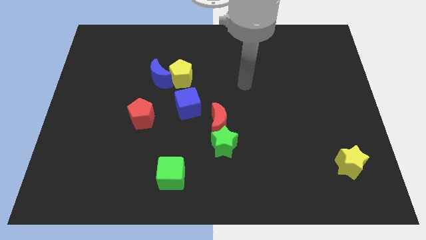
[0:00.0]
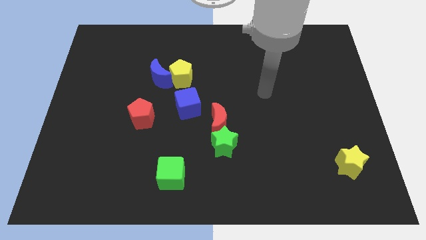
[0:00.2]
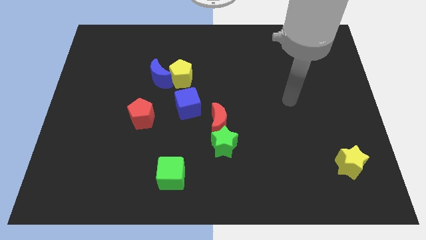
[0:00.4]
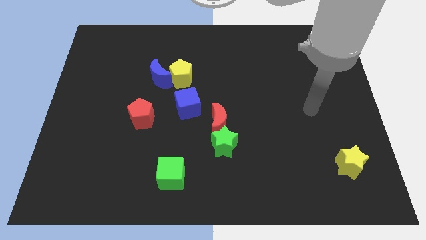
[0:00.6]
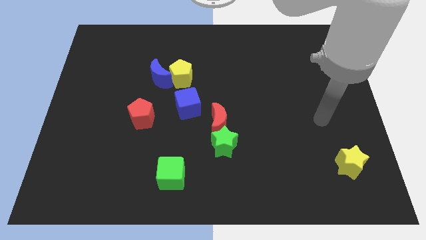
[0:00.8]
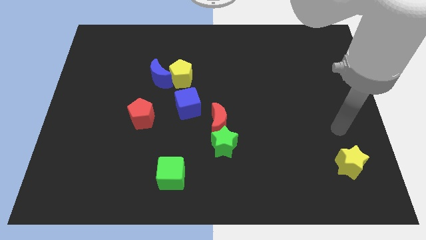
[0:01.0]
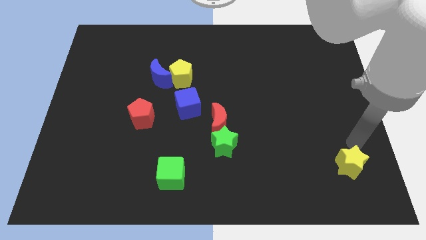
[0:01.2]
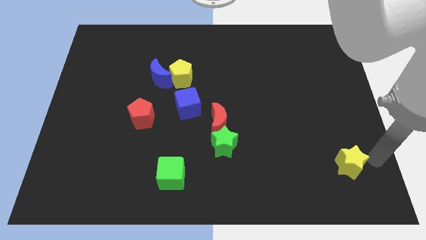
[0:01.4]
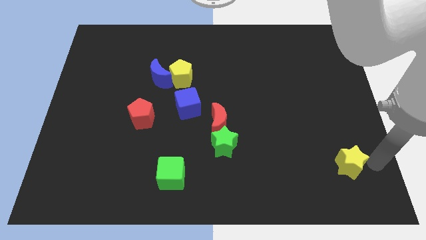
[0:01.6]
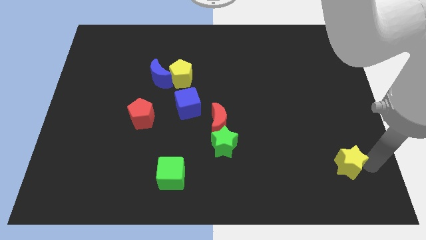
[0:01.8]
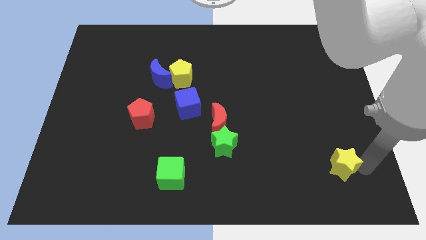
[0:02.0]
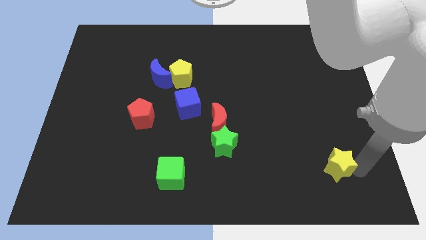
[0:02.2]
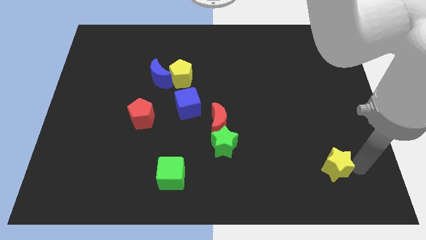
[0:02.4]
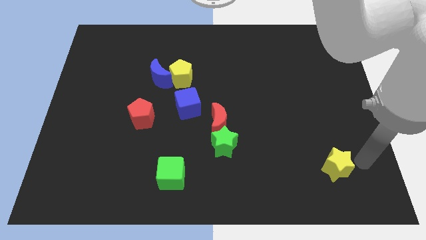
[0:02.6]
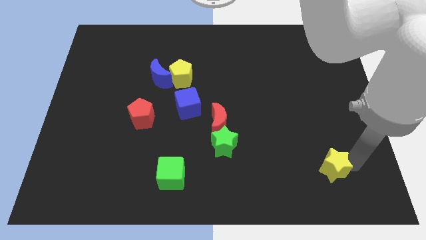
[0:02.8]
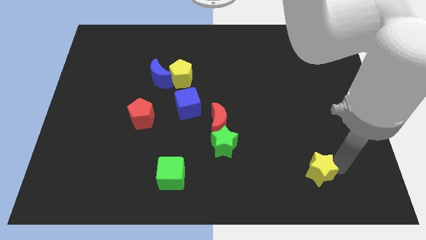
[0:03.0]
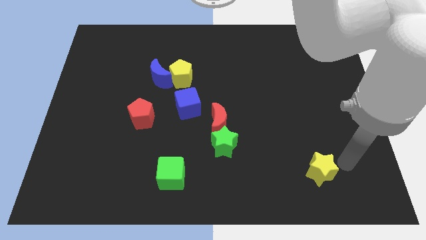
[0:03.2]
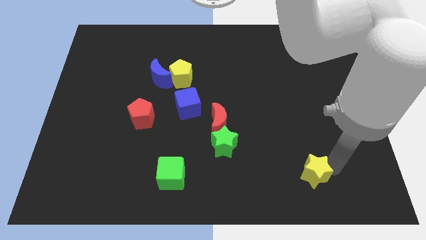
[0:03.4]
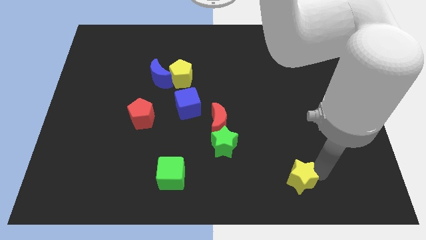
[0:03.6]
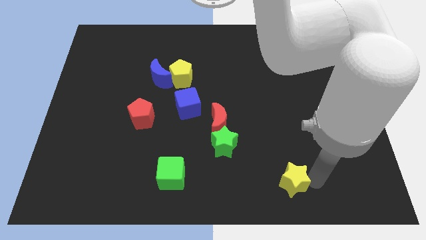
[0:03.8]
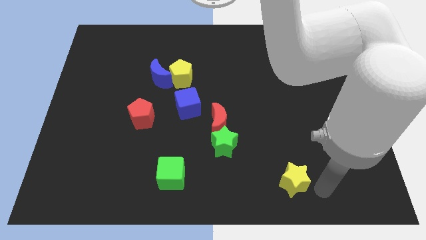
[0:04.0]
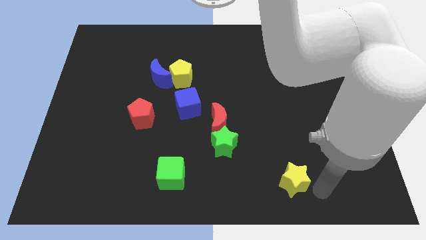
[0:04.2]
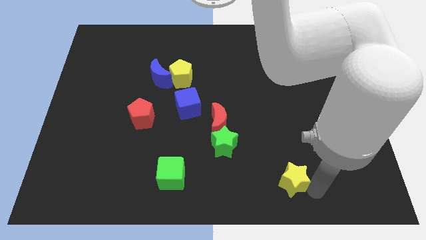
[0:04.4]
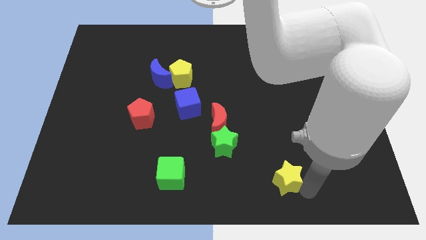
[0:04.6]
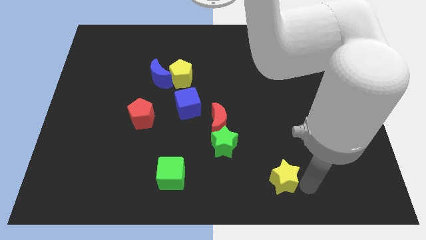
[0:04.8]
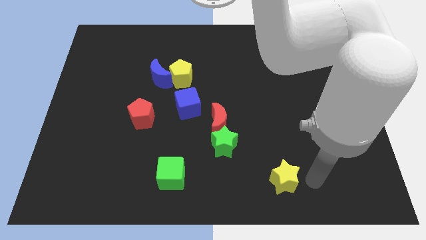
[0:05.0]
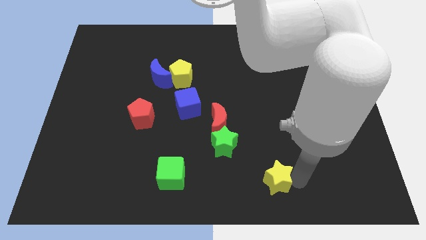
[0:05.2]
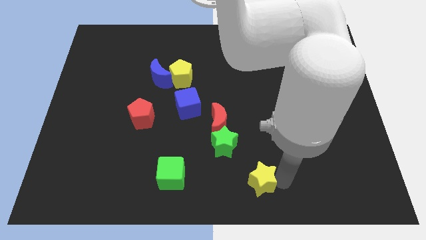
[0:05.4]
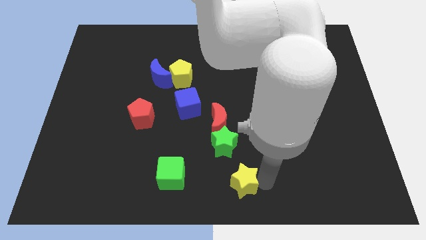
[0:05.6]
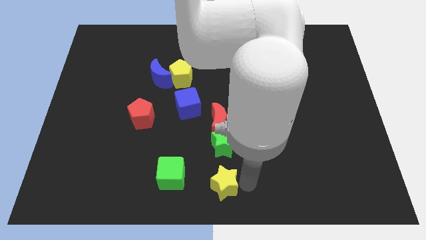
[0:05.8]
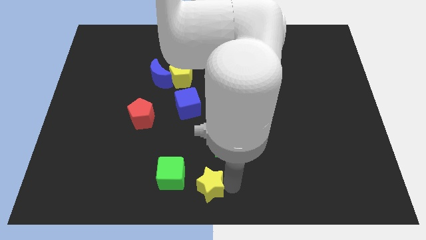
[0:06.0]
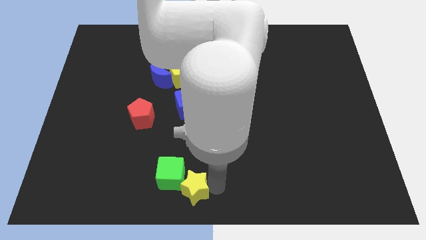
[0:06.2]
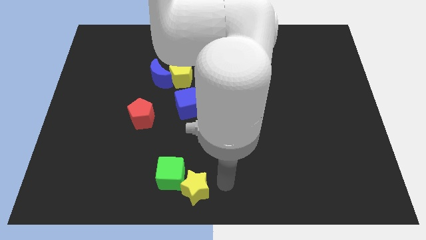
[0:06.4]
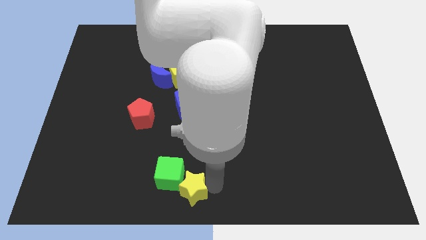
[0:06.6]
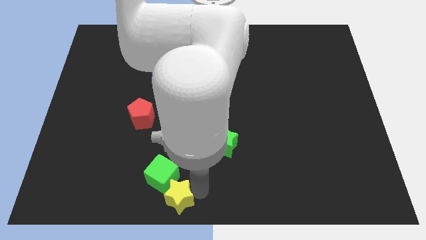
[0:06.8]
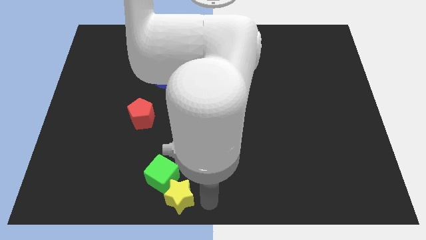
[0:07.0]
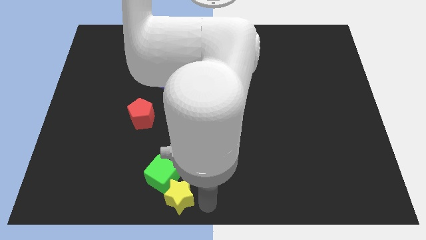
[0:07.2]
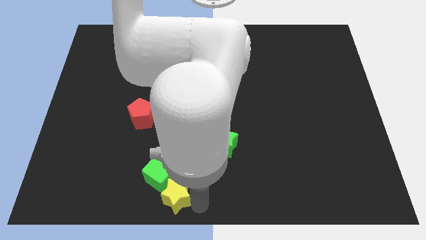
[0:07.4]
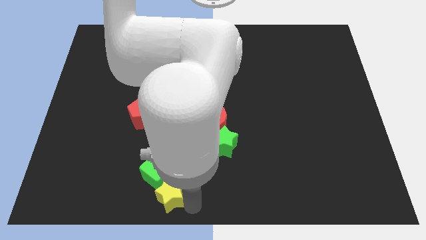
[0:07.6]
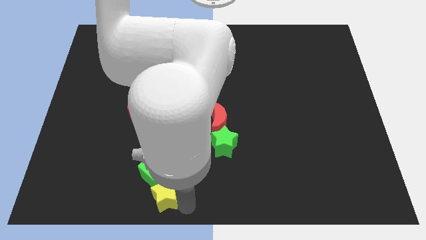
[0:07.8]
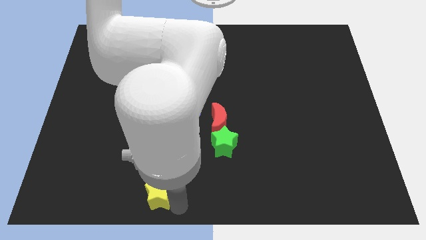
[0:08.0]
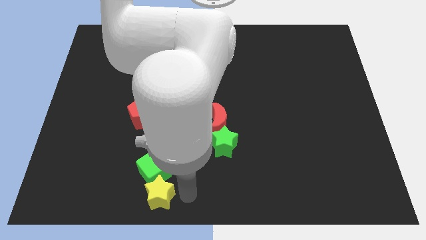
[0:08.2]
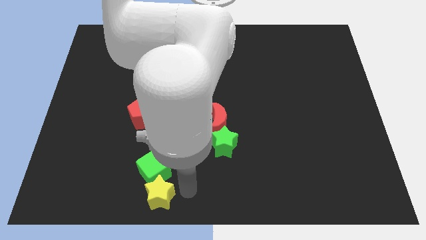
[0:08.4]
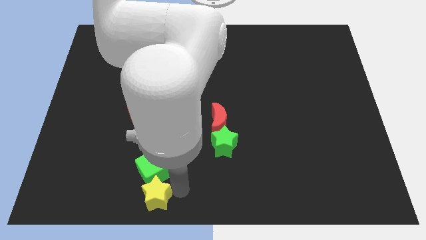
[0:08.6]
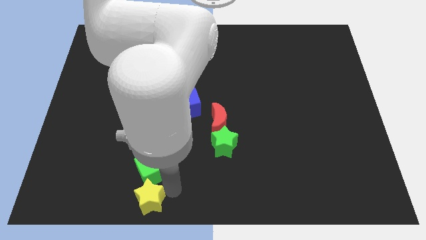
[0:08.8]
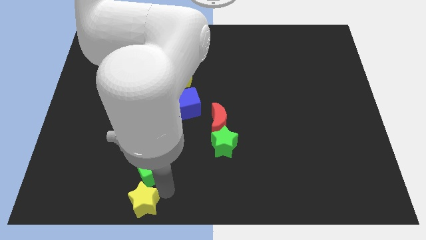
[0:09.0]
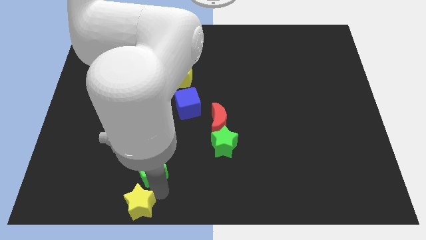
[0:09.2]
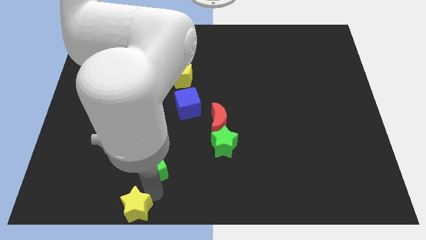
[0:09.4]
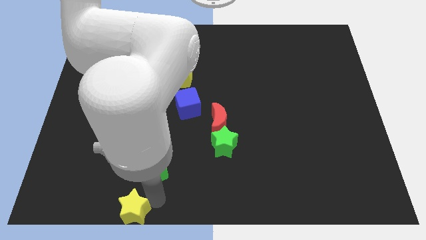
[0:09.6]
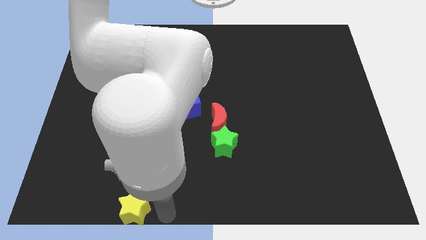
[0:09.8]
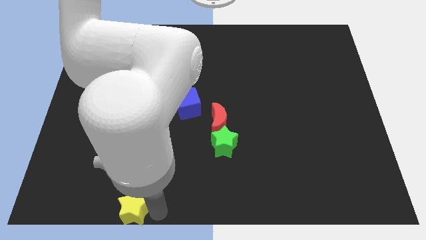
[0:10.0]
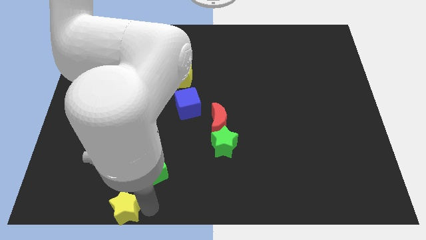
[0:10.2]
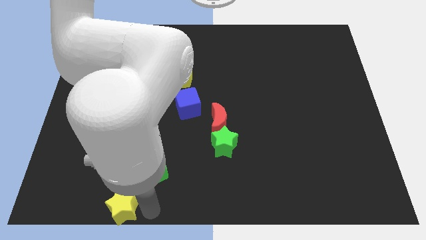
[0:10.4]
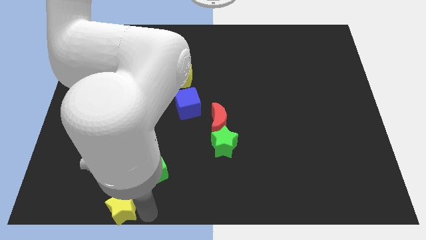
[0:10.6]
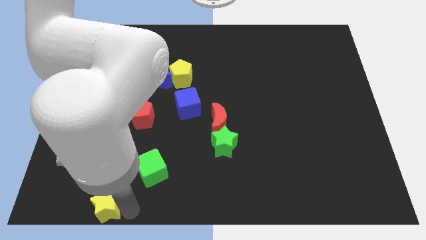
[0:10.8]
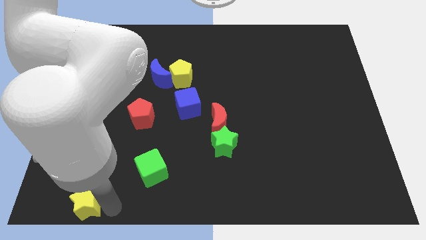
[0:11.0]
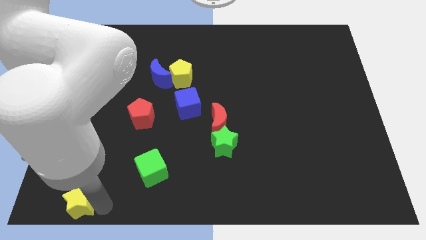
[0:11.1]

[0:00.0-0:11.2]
put the yellow star to the bottom left of the board

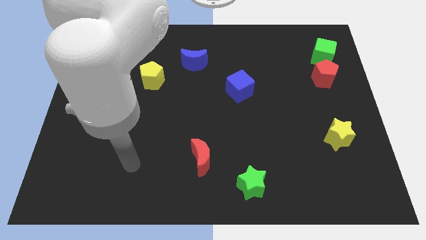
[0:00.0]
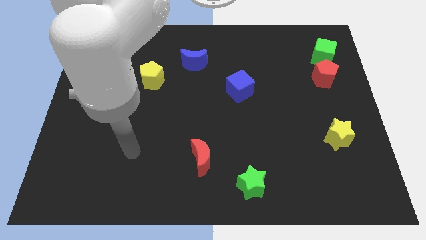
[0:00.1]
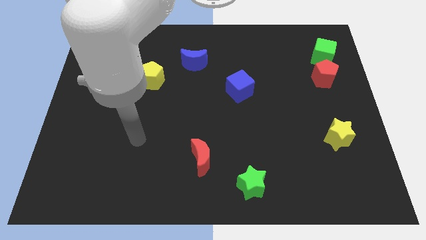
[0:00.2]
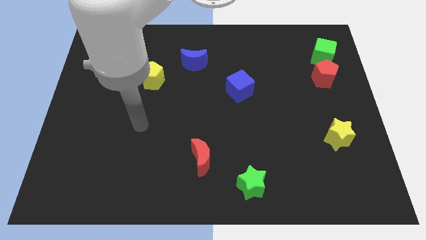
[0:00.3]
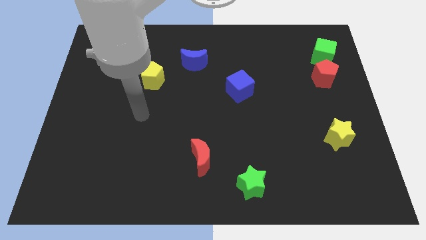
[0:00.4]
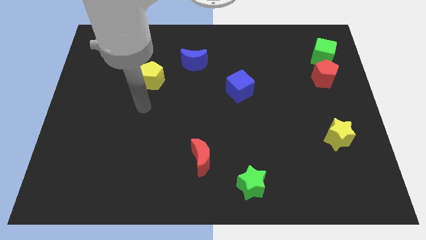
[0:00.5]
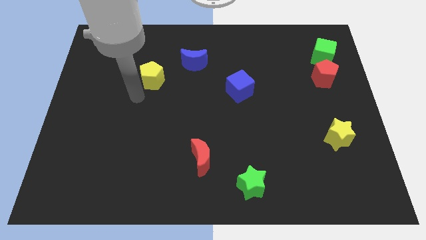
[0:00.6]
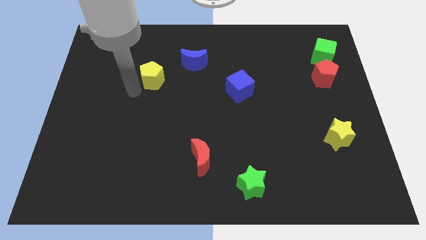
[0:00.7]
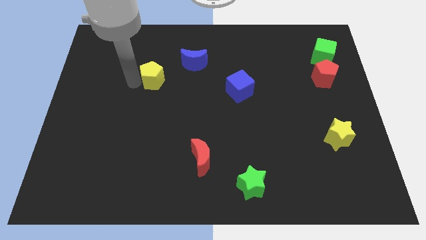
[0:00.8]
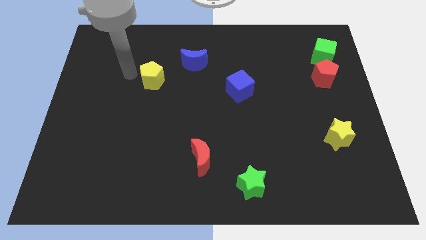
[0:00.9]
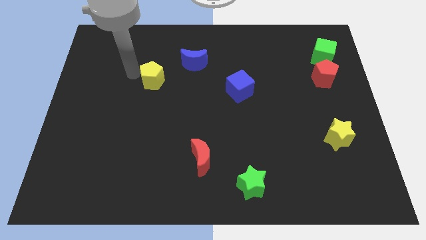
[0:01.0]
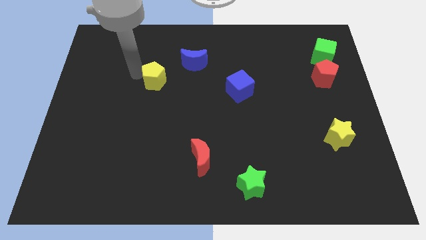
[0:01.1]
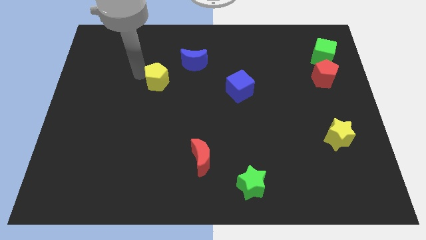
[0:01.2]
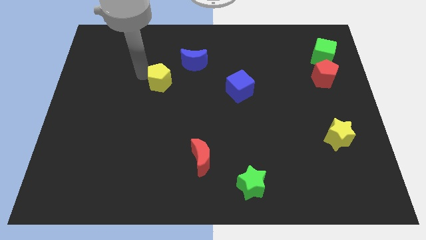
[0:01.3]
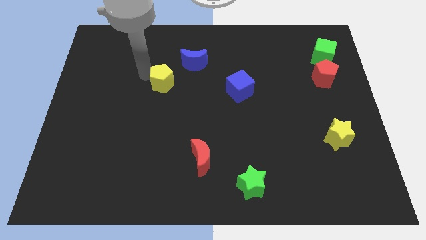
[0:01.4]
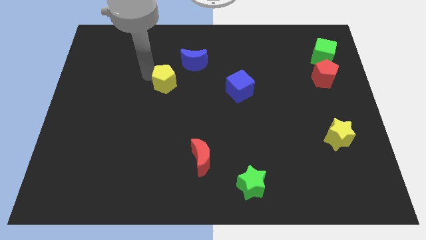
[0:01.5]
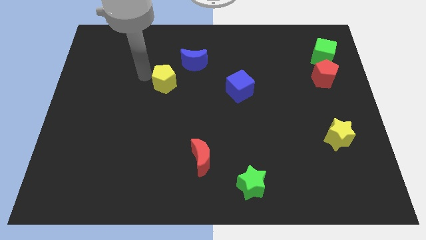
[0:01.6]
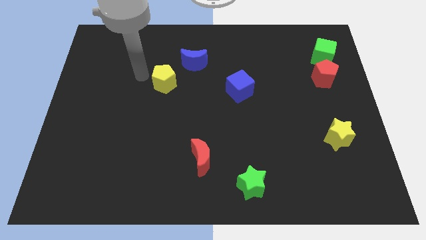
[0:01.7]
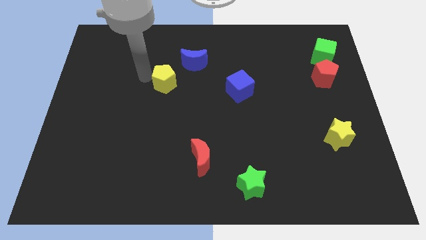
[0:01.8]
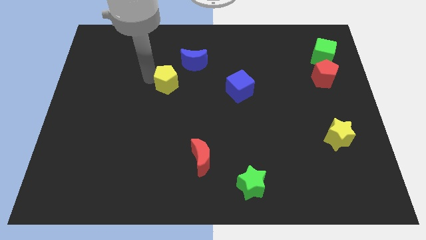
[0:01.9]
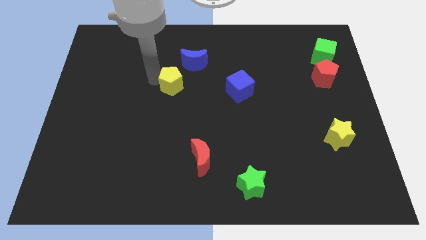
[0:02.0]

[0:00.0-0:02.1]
move the yellow pentagon to the middle
